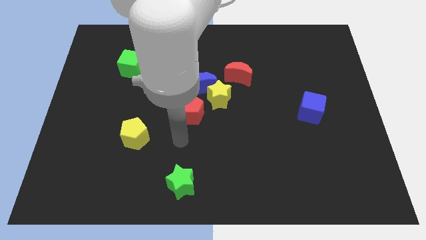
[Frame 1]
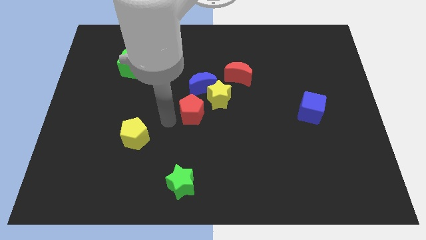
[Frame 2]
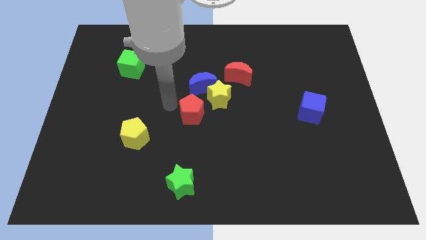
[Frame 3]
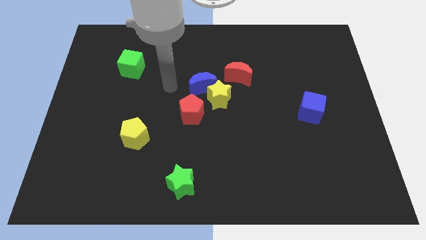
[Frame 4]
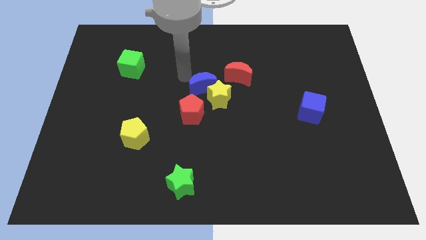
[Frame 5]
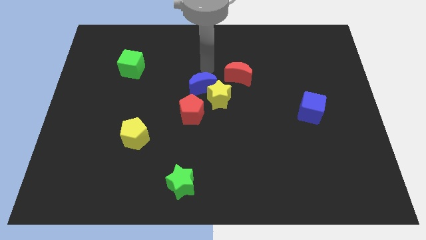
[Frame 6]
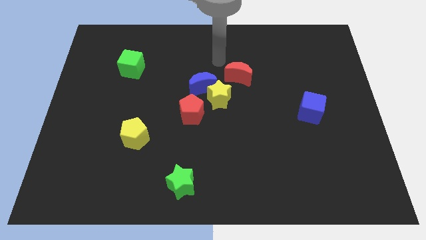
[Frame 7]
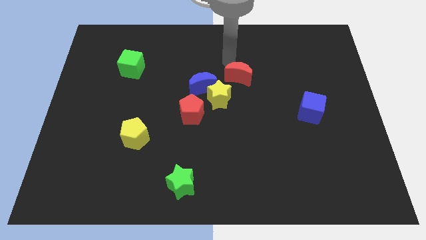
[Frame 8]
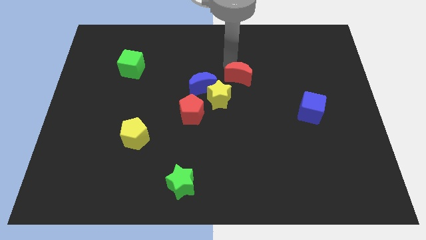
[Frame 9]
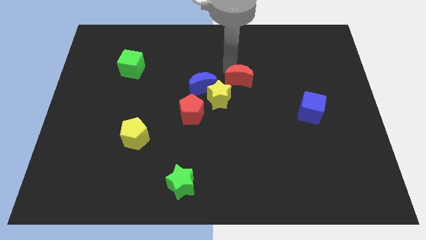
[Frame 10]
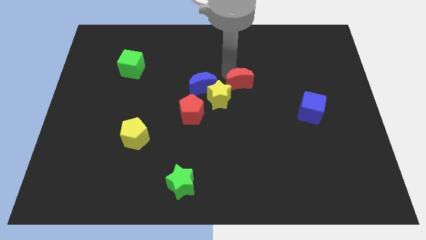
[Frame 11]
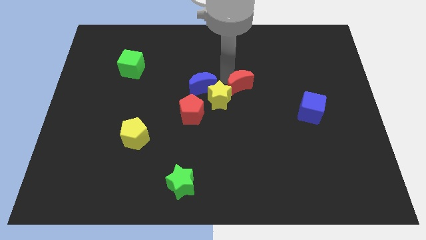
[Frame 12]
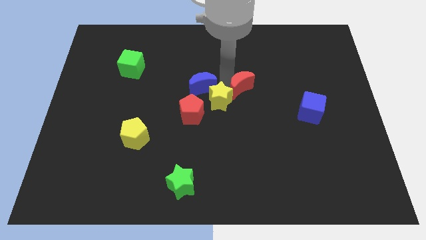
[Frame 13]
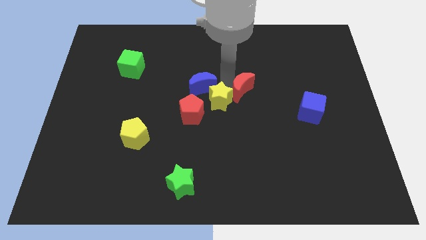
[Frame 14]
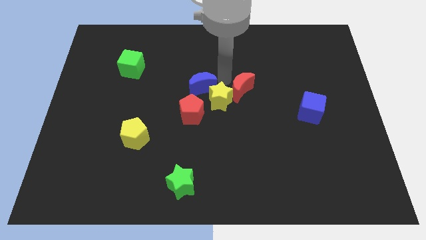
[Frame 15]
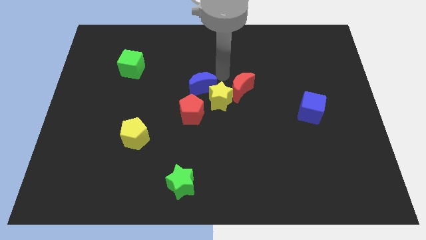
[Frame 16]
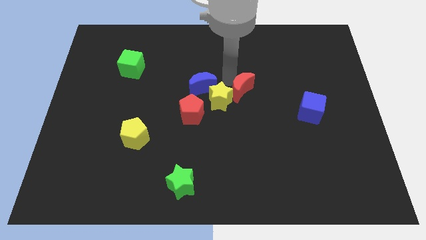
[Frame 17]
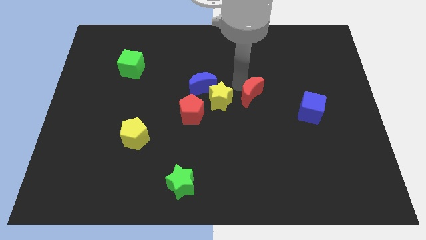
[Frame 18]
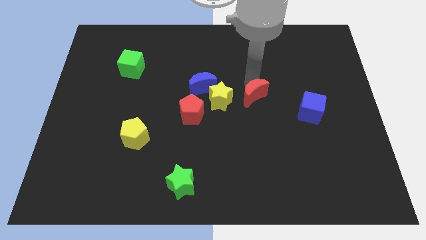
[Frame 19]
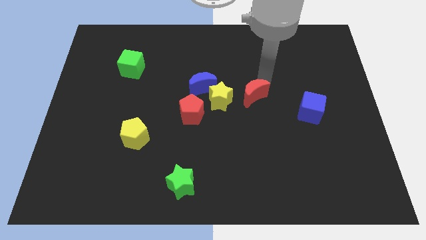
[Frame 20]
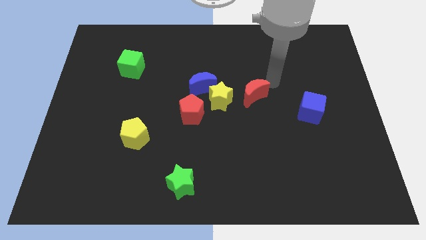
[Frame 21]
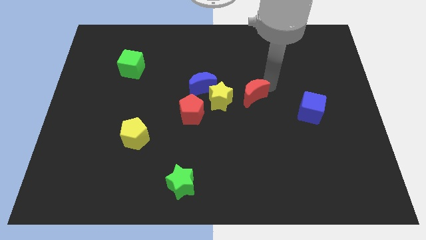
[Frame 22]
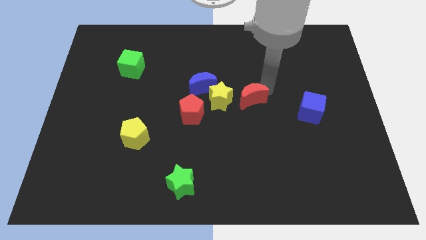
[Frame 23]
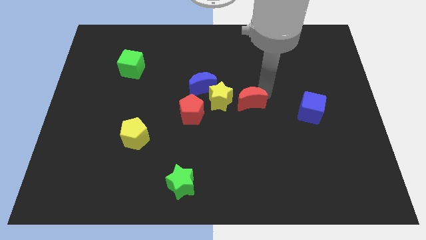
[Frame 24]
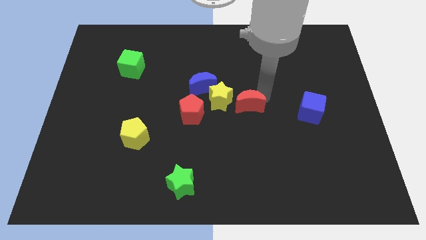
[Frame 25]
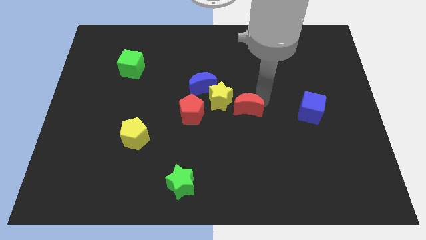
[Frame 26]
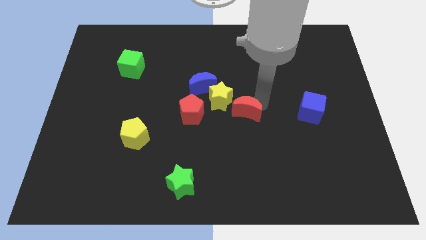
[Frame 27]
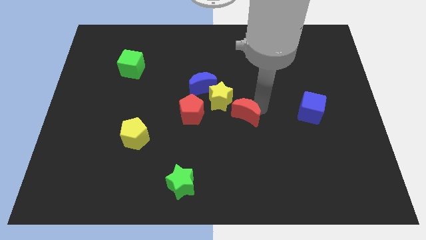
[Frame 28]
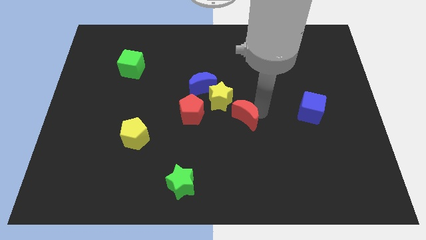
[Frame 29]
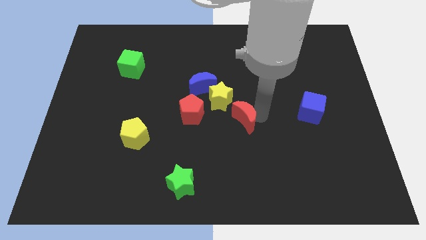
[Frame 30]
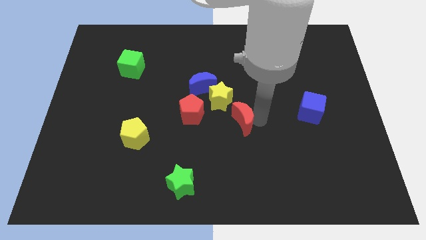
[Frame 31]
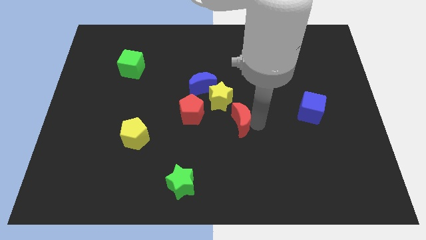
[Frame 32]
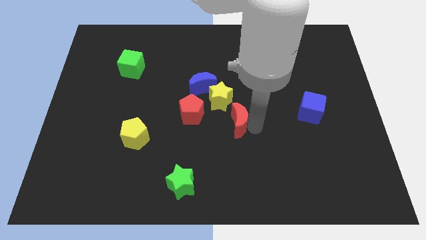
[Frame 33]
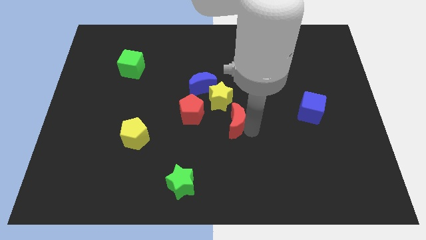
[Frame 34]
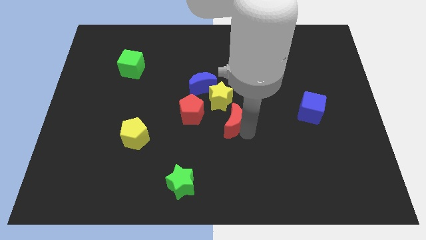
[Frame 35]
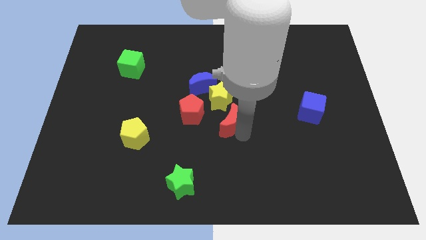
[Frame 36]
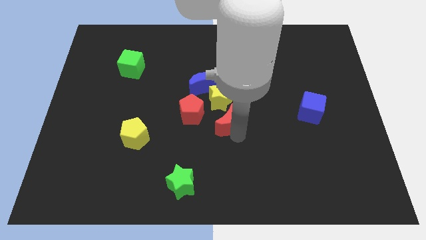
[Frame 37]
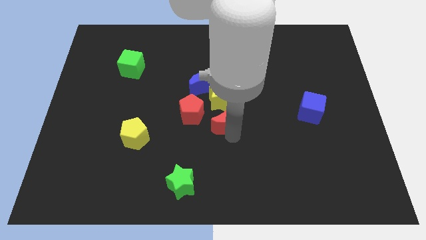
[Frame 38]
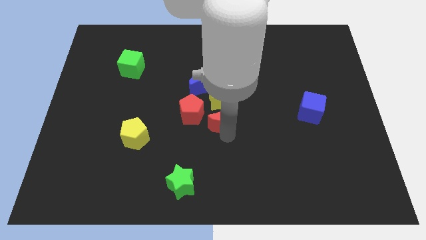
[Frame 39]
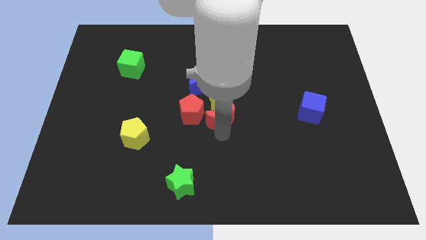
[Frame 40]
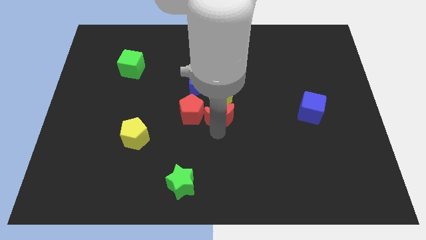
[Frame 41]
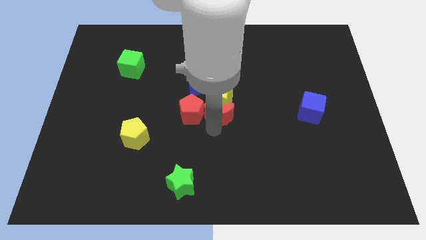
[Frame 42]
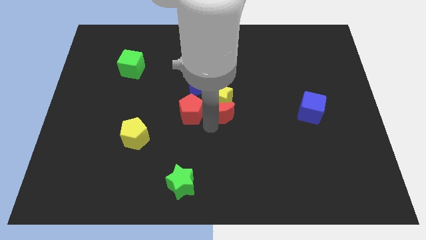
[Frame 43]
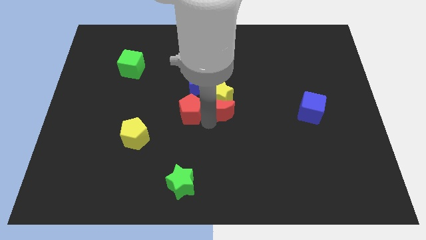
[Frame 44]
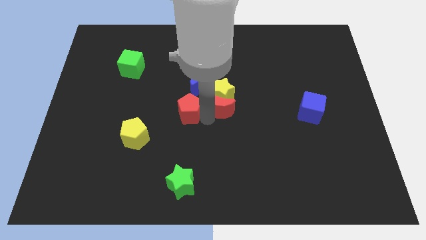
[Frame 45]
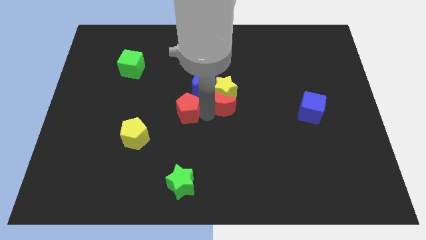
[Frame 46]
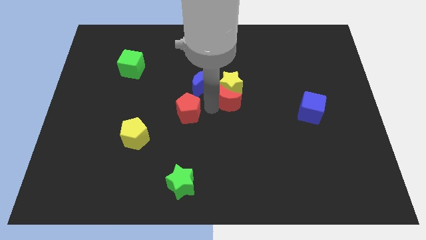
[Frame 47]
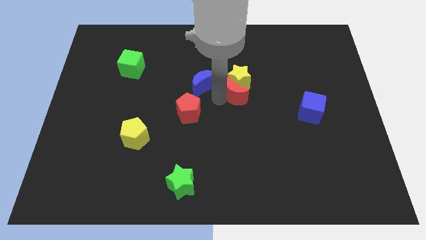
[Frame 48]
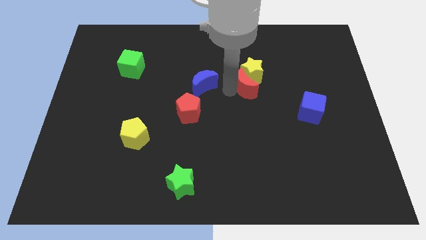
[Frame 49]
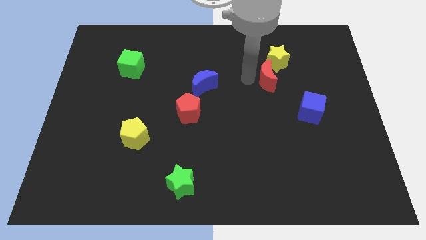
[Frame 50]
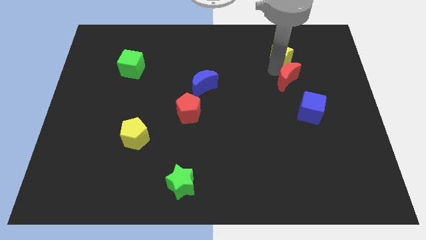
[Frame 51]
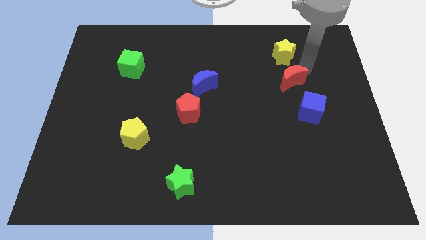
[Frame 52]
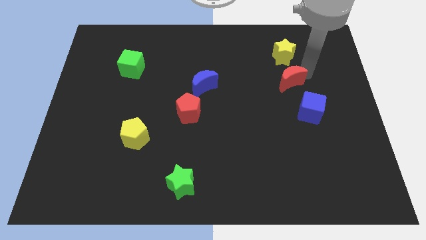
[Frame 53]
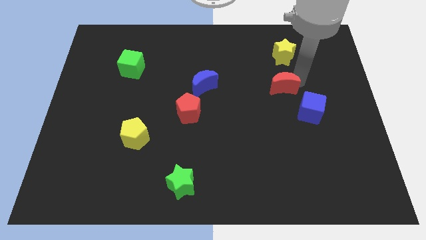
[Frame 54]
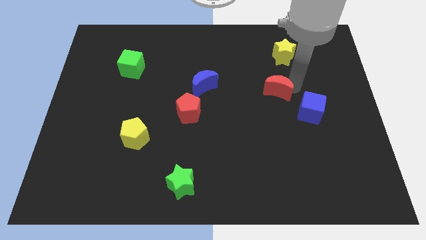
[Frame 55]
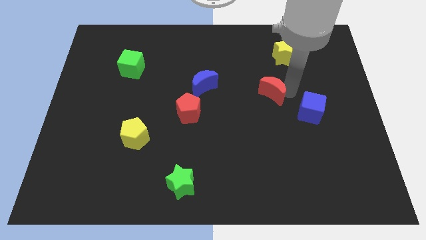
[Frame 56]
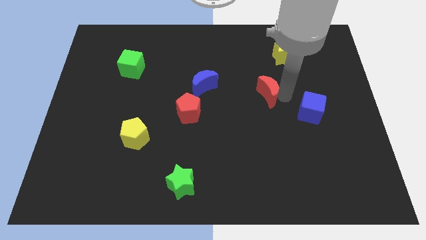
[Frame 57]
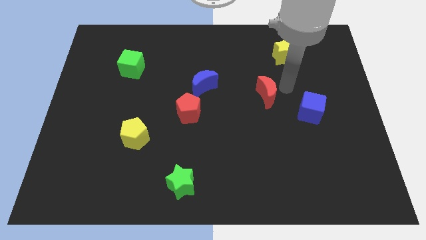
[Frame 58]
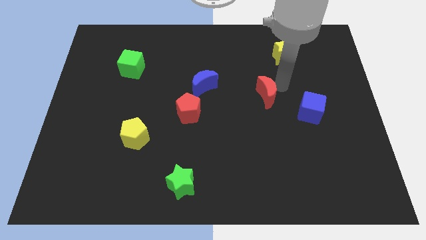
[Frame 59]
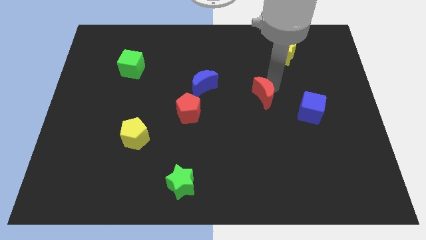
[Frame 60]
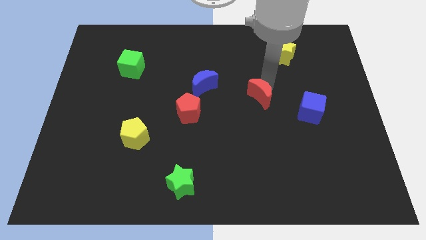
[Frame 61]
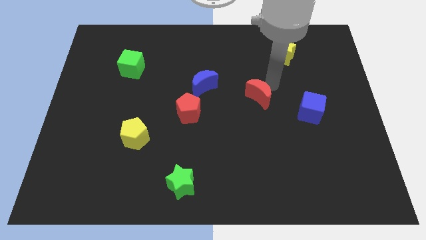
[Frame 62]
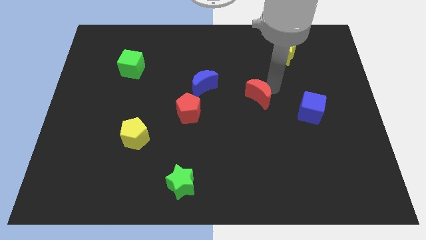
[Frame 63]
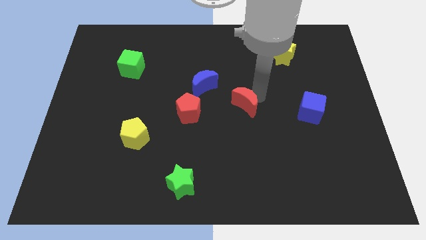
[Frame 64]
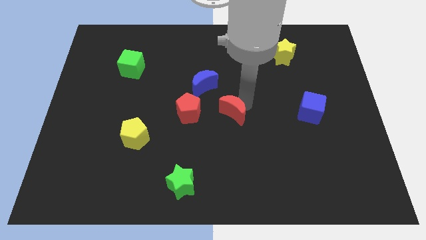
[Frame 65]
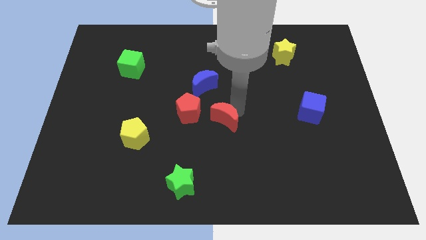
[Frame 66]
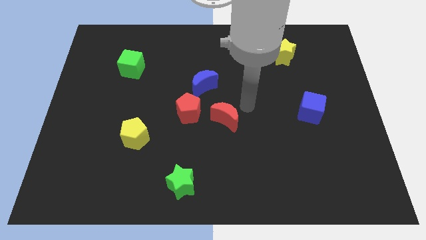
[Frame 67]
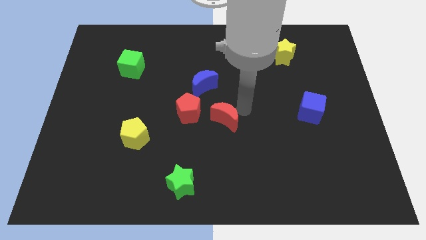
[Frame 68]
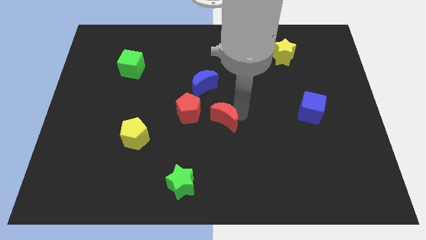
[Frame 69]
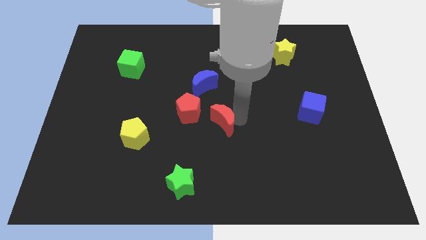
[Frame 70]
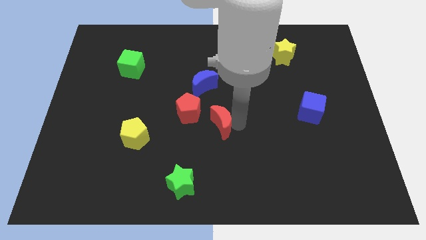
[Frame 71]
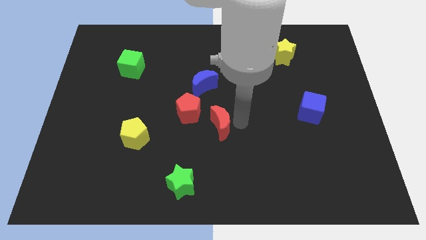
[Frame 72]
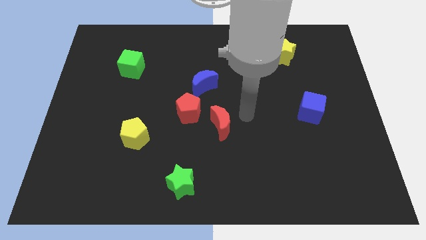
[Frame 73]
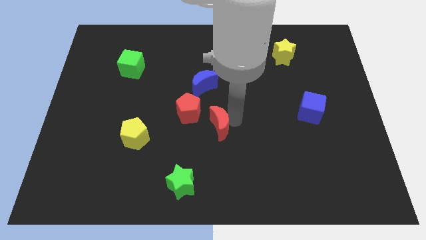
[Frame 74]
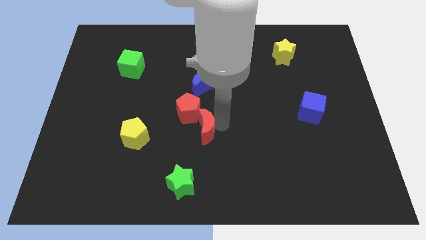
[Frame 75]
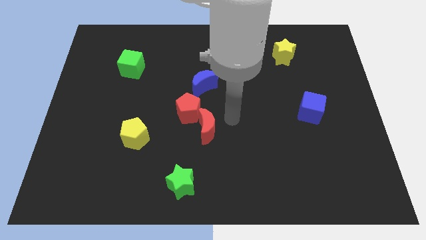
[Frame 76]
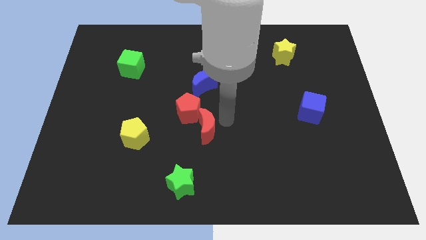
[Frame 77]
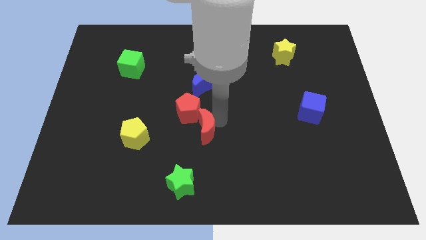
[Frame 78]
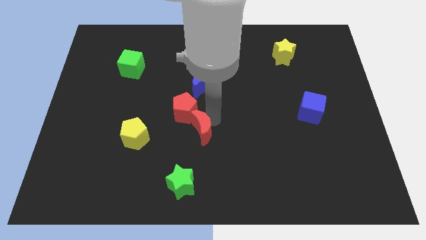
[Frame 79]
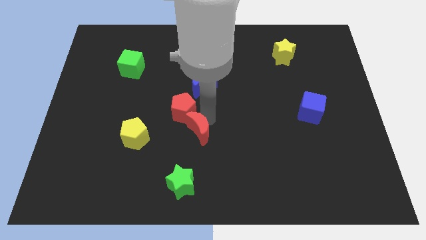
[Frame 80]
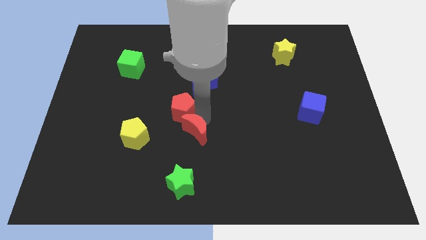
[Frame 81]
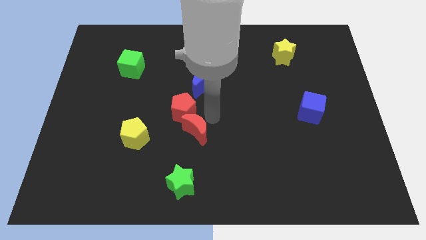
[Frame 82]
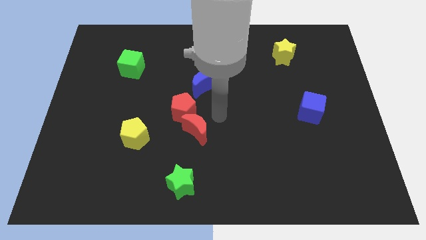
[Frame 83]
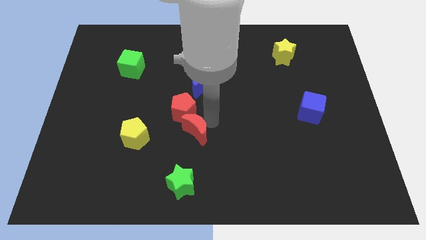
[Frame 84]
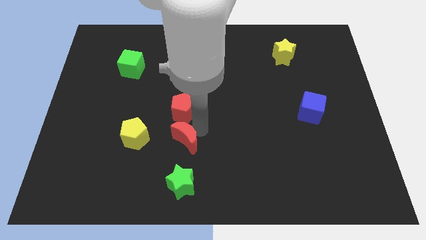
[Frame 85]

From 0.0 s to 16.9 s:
push the red moon downwards and to the left diagonally
